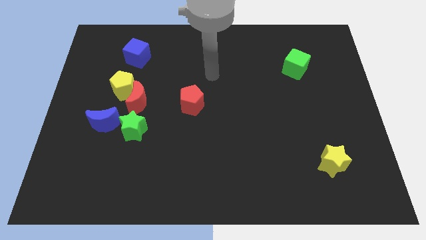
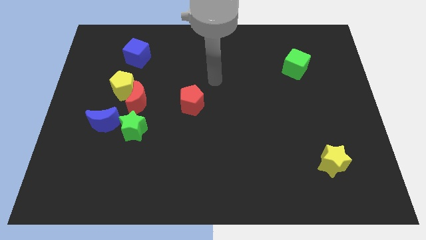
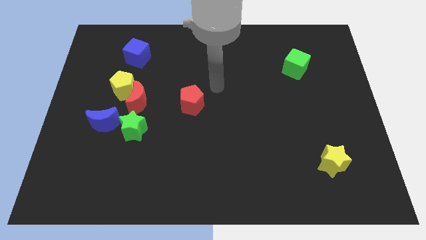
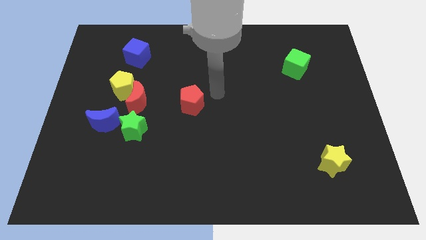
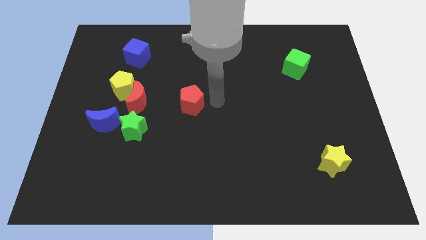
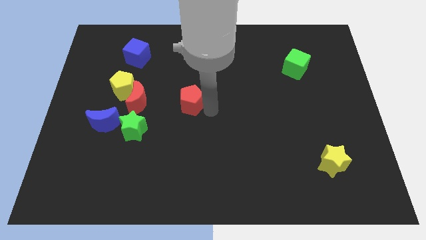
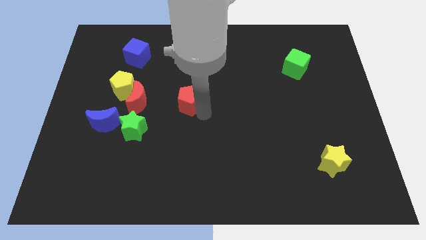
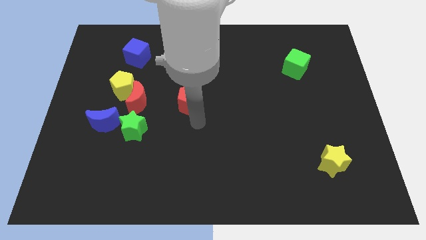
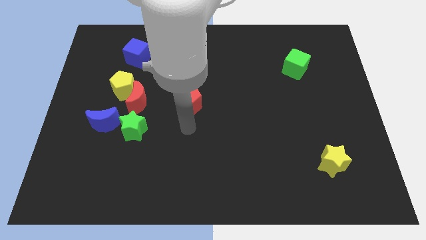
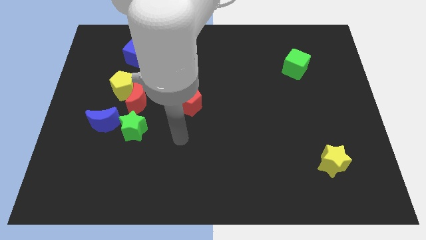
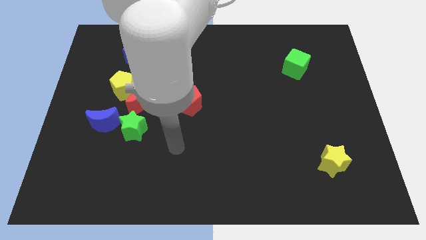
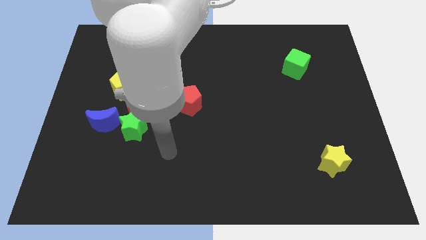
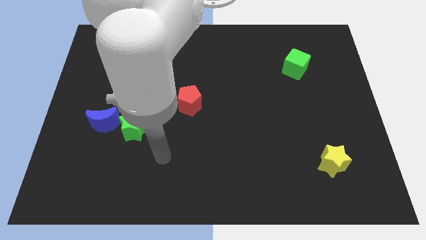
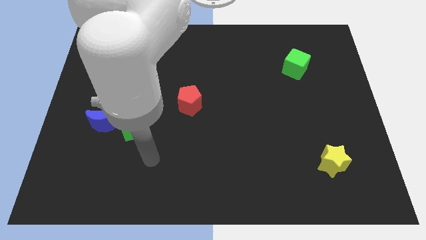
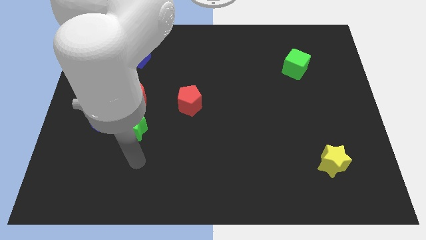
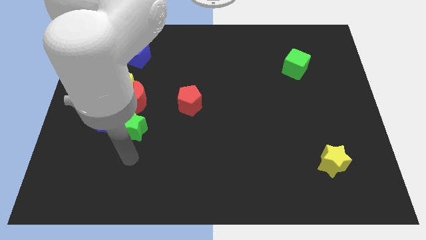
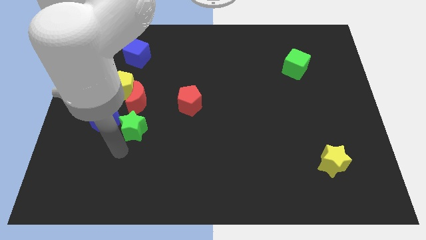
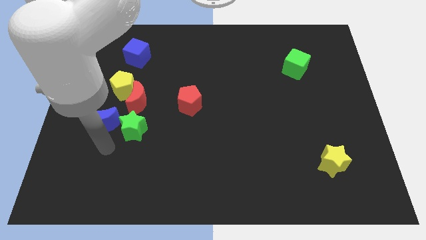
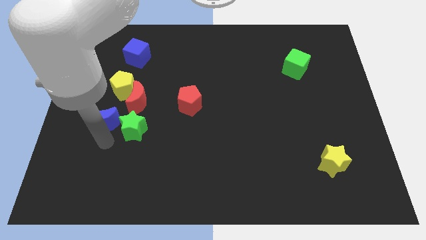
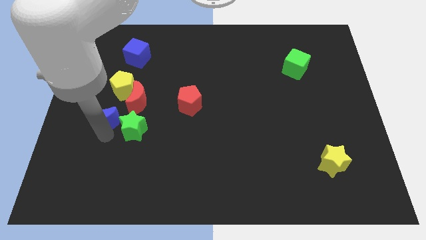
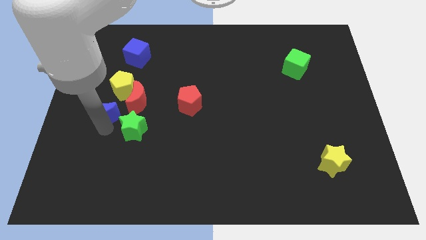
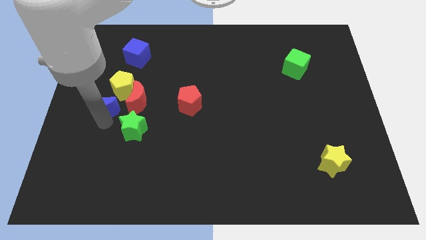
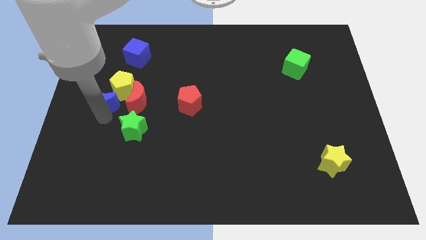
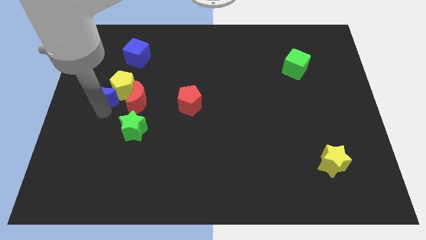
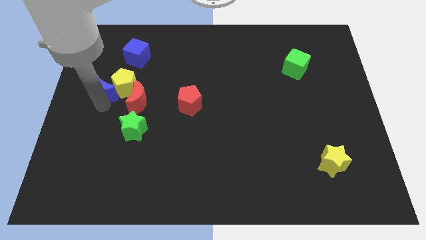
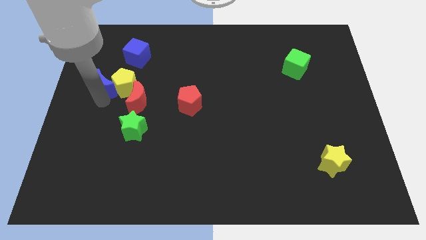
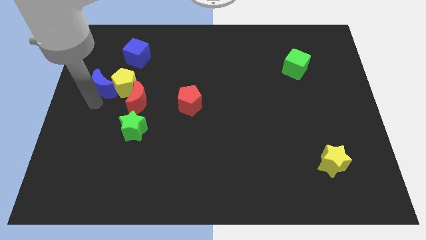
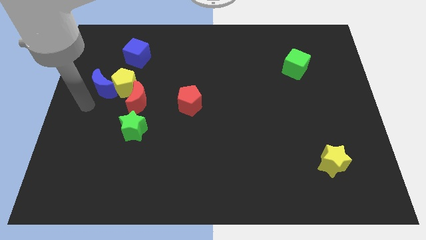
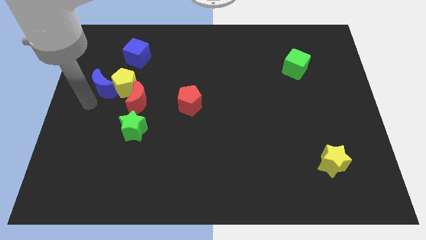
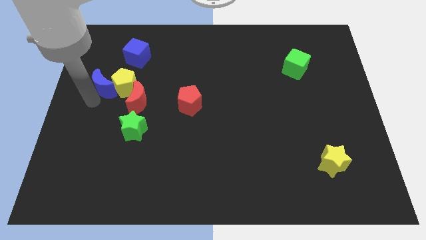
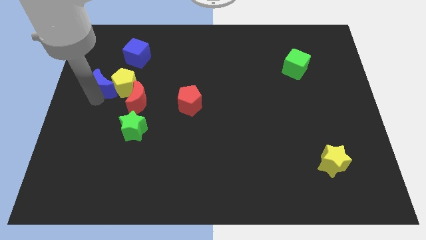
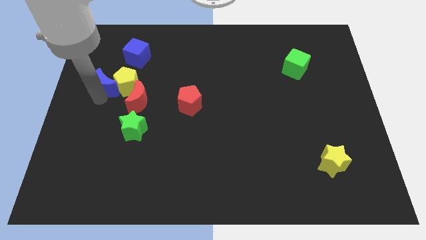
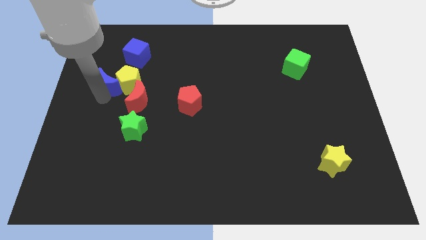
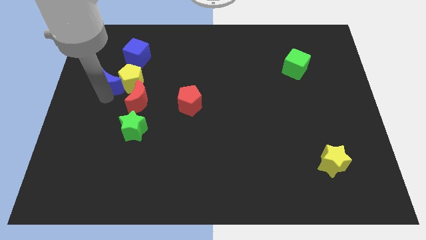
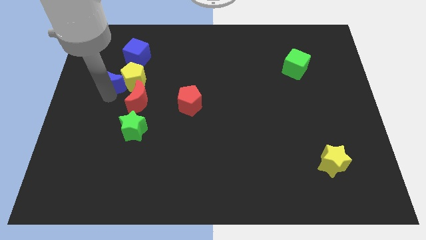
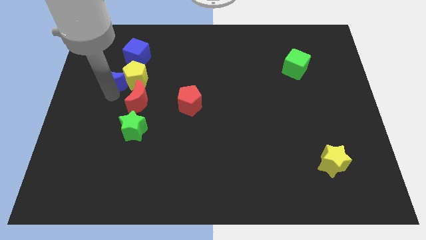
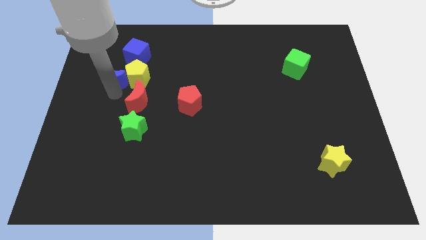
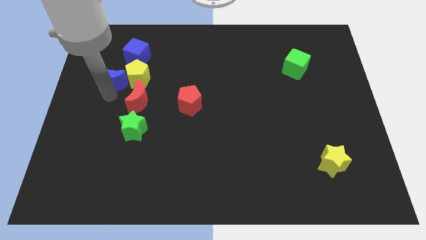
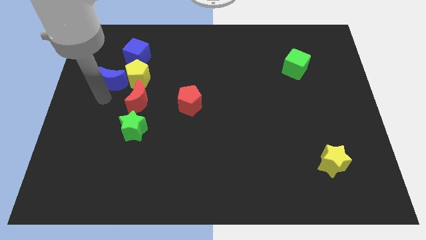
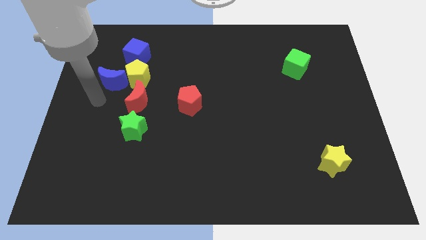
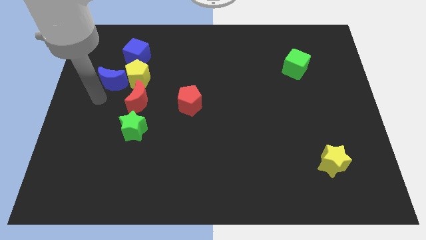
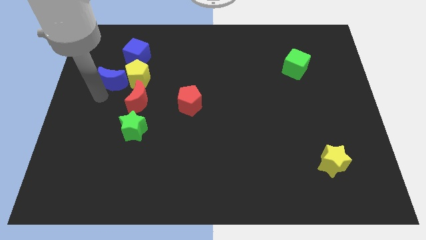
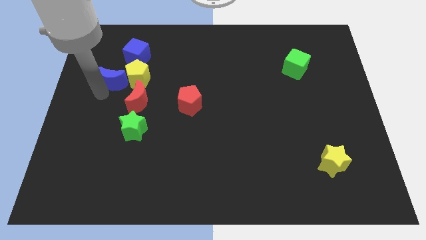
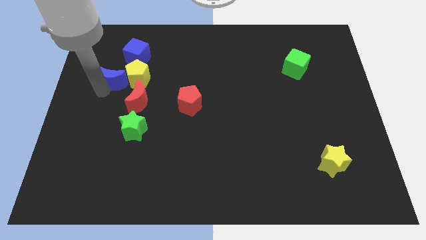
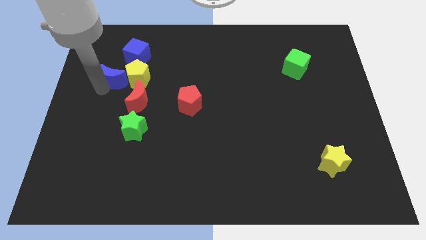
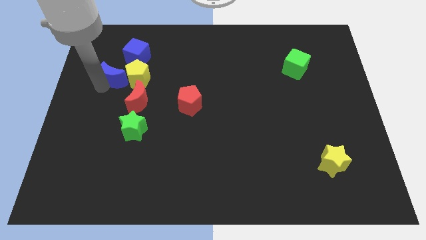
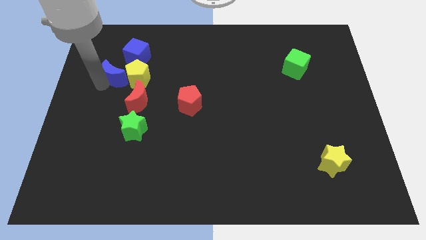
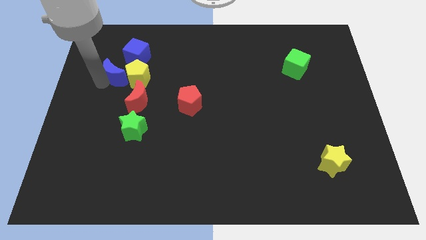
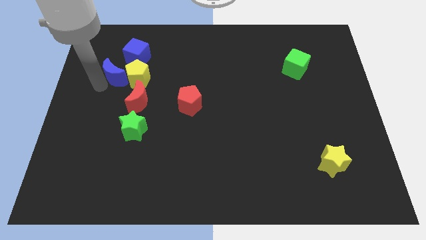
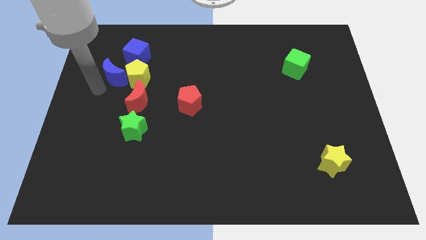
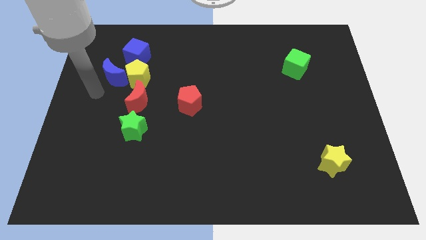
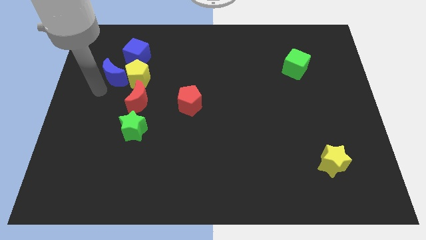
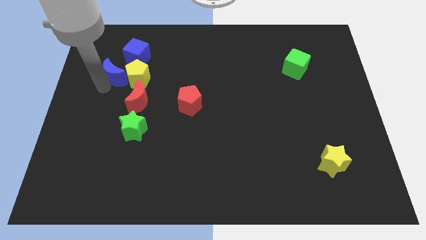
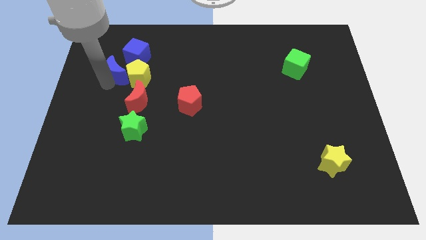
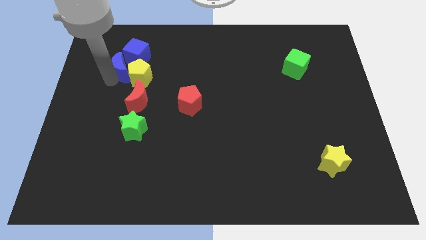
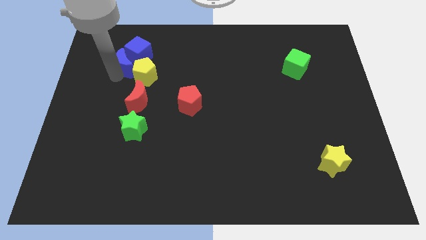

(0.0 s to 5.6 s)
slide the blue moon next to the blue cube

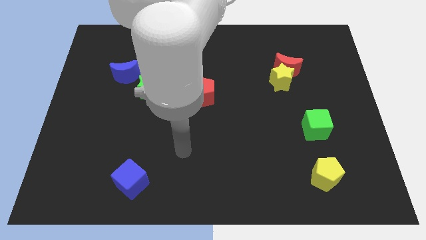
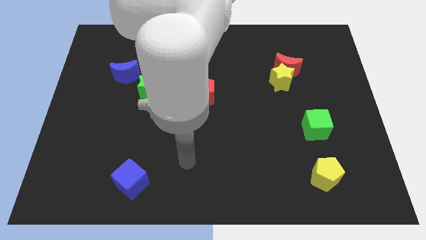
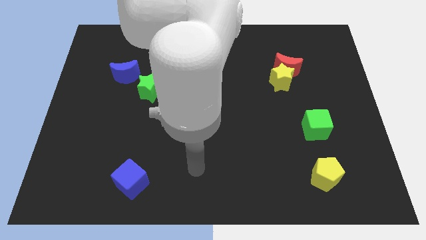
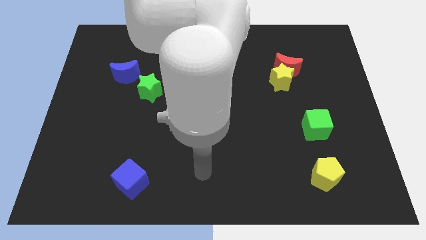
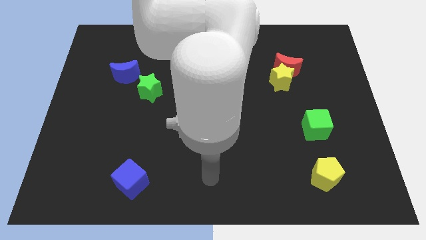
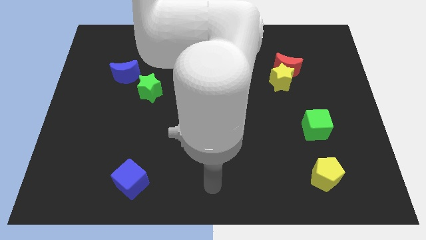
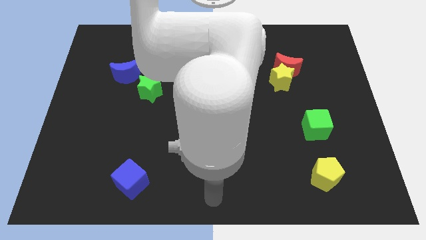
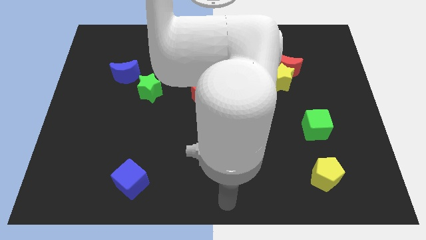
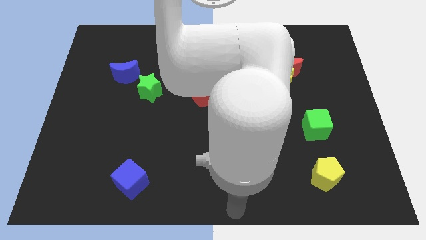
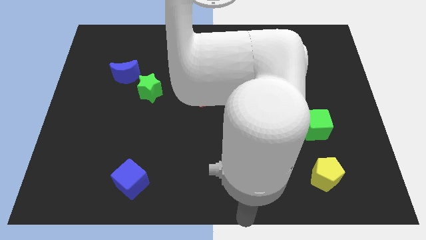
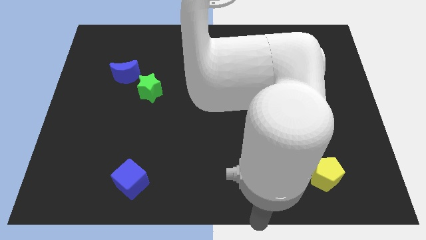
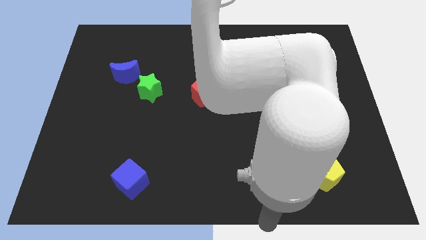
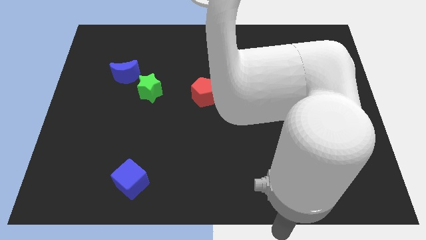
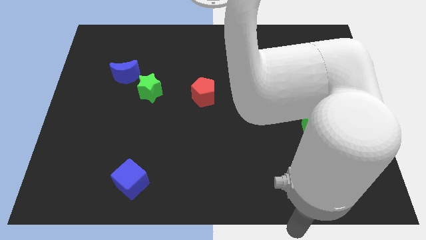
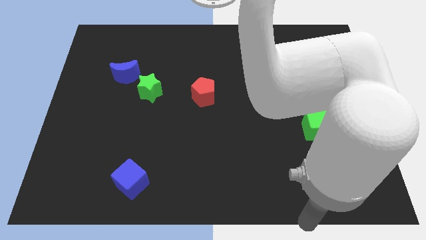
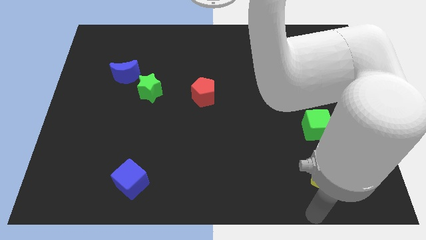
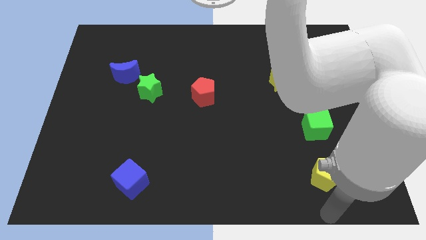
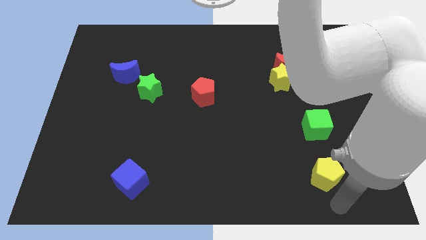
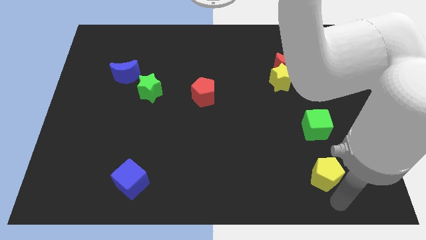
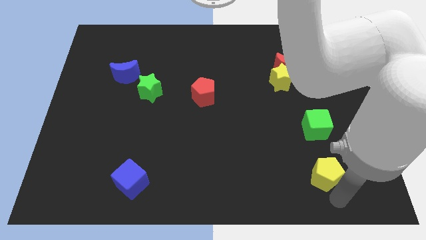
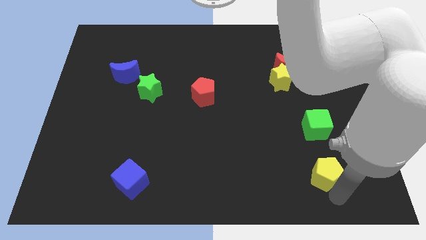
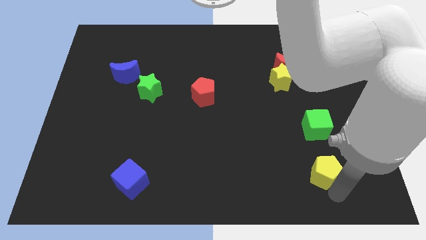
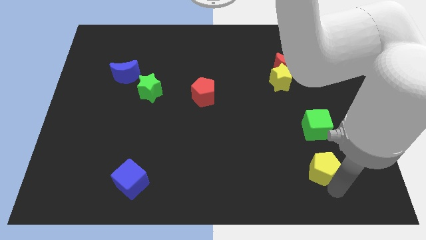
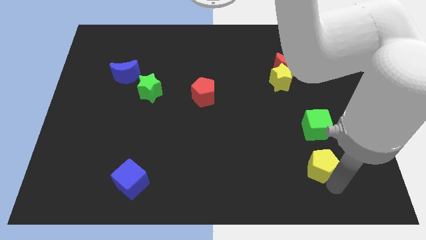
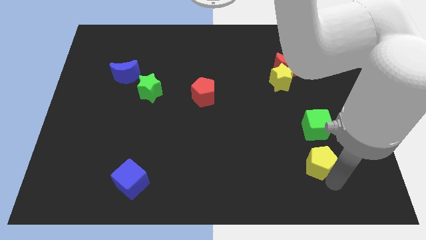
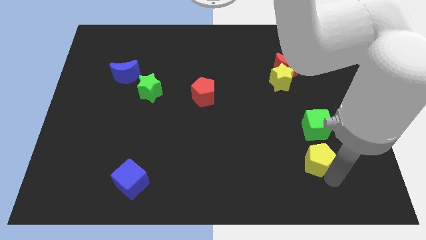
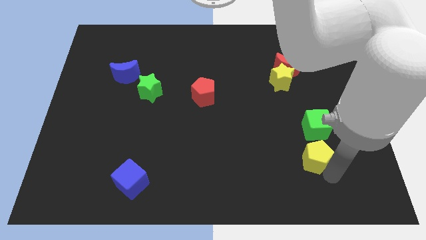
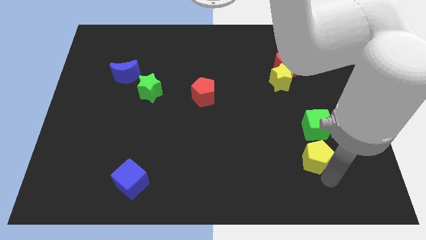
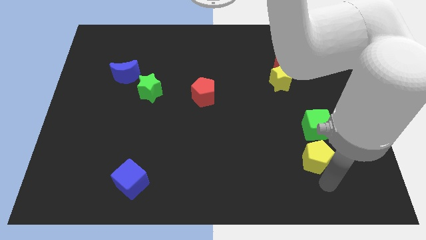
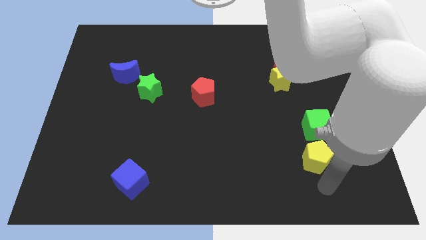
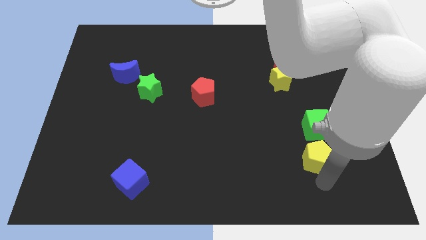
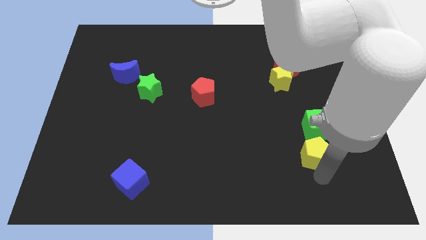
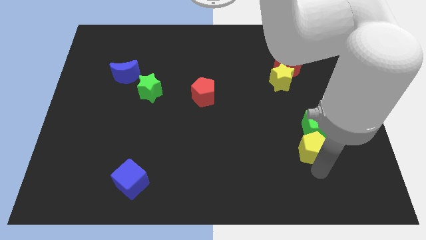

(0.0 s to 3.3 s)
push the yellow pentagon to the green cube
